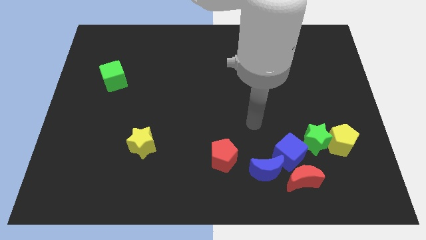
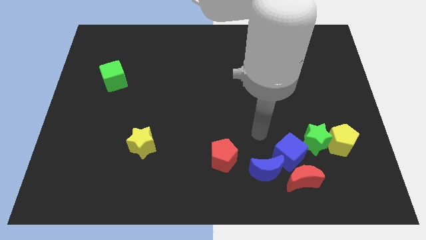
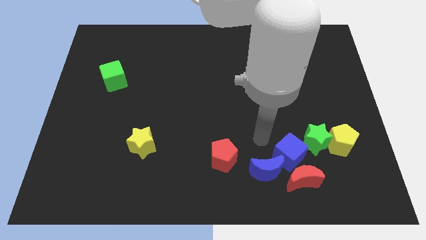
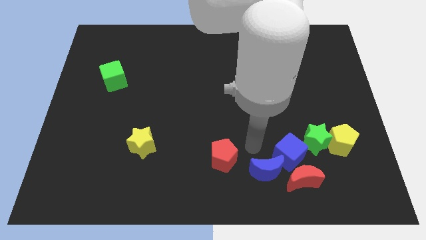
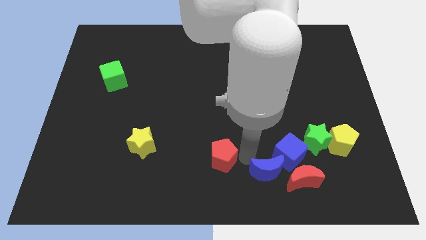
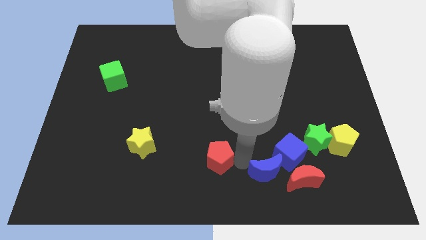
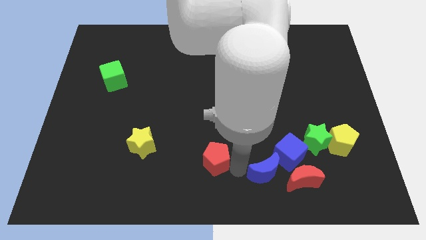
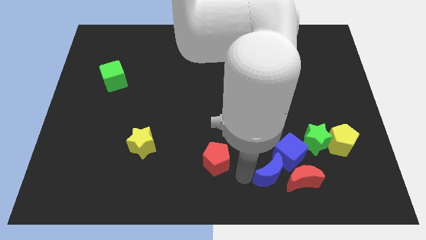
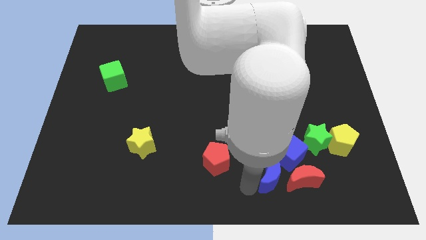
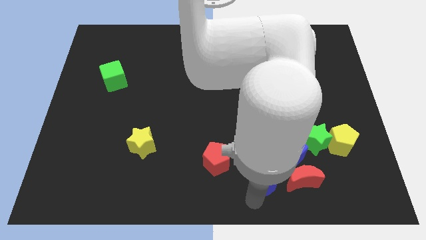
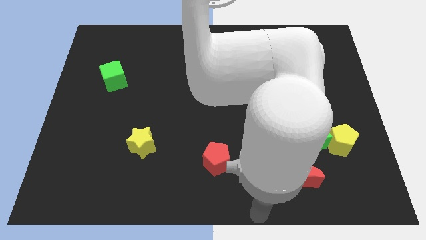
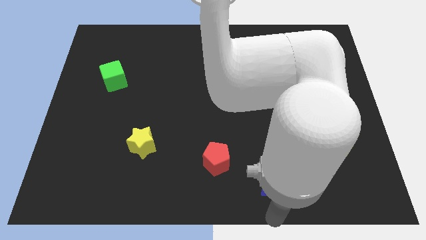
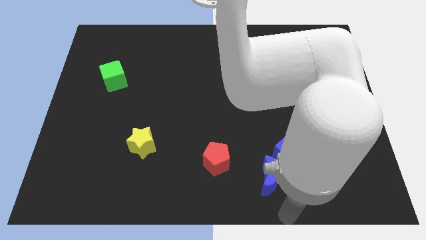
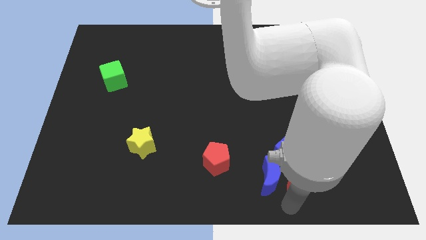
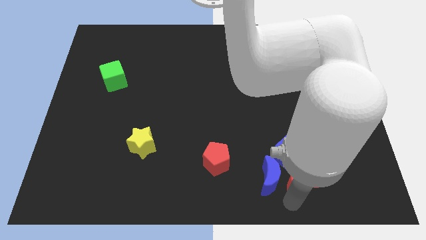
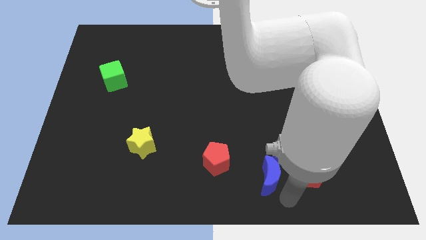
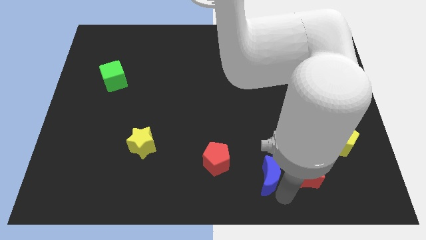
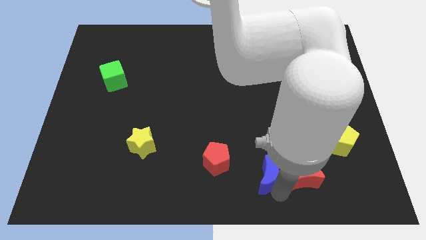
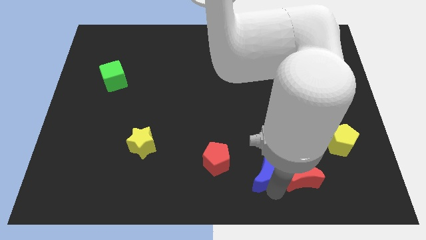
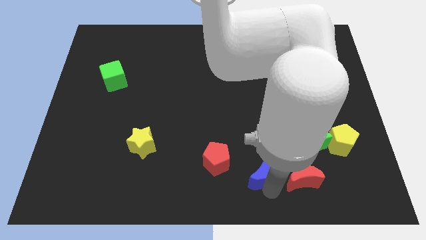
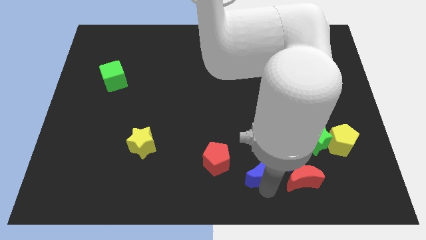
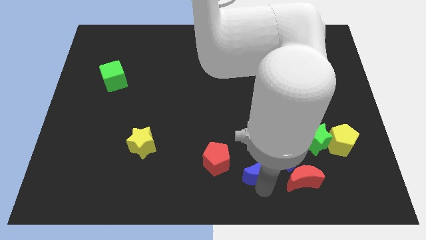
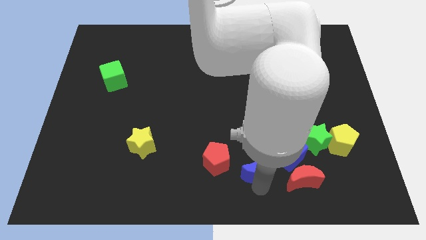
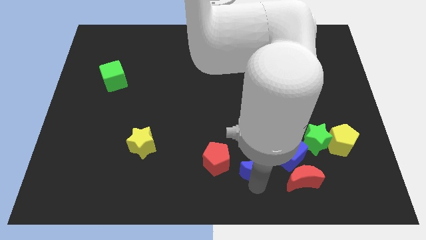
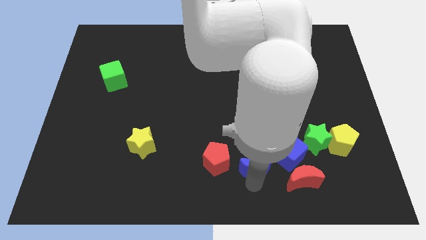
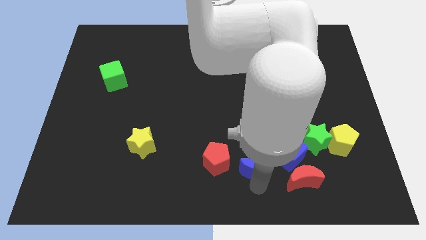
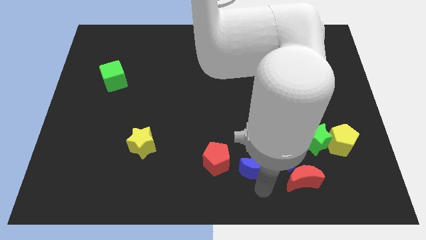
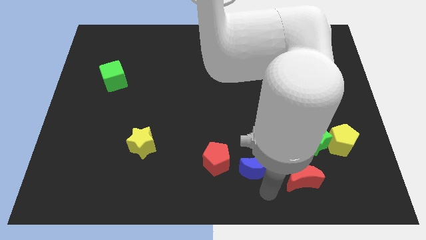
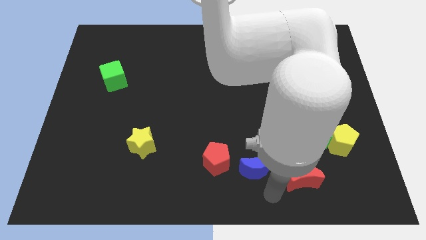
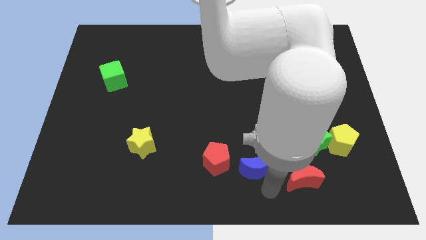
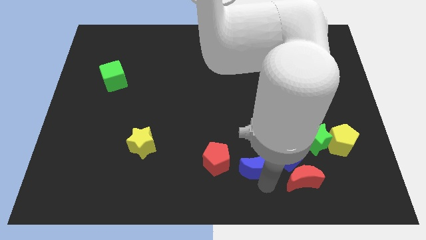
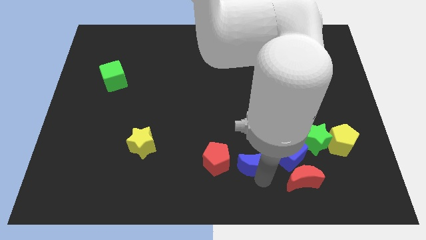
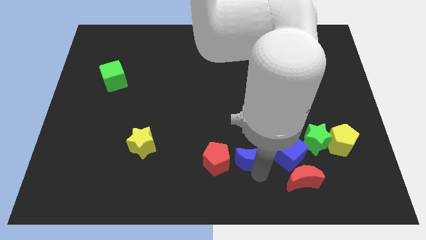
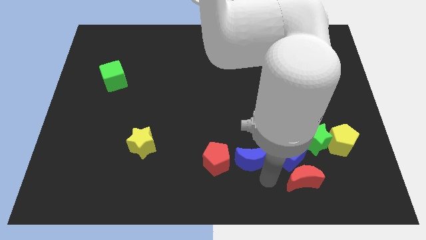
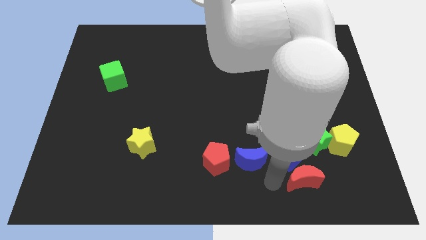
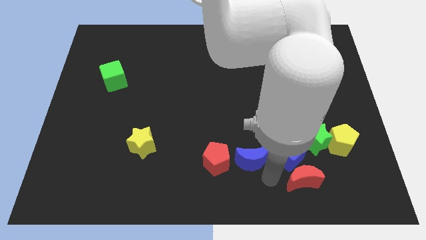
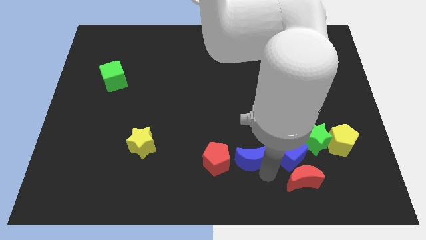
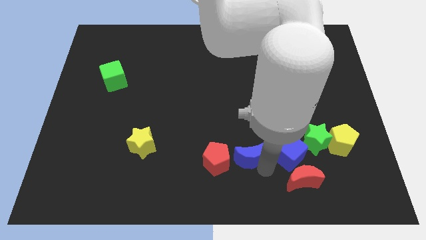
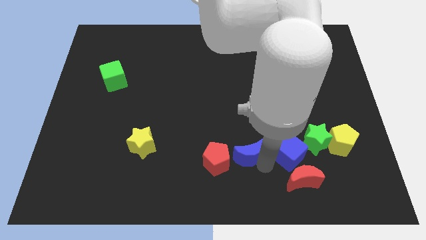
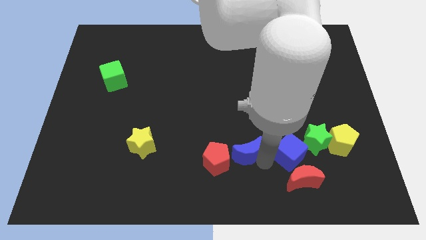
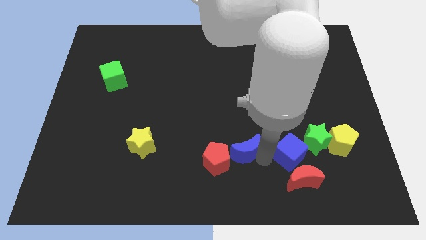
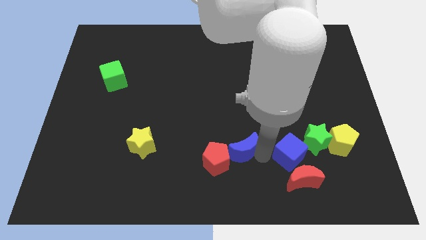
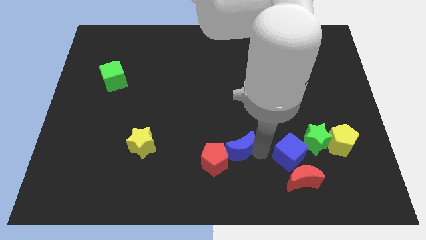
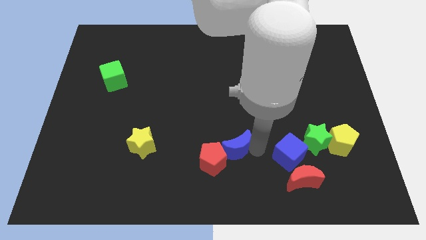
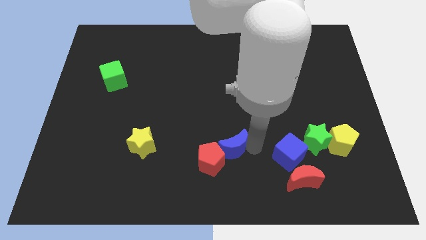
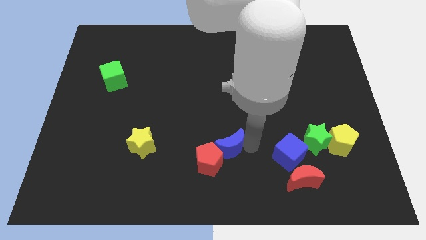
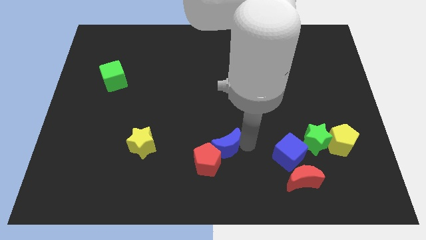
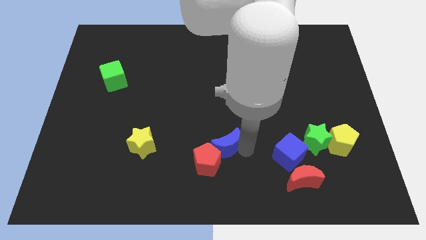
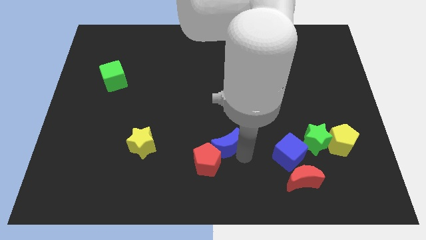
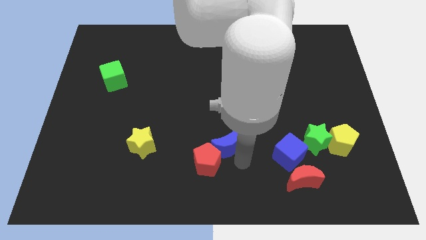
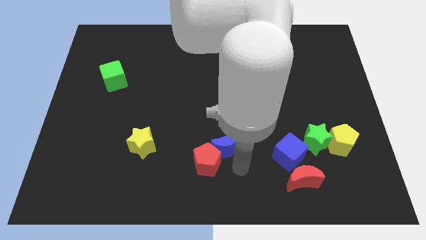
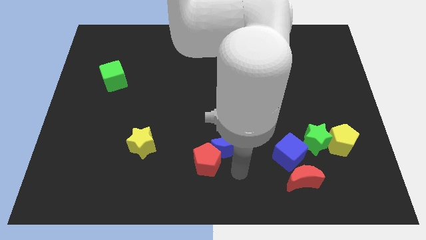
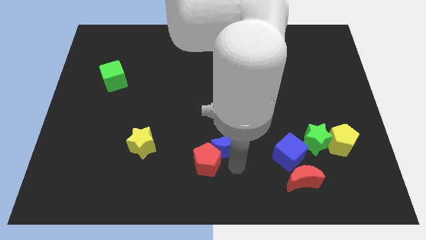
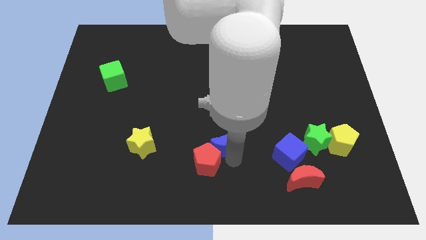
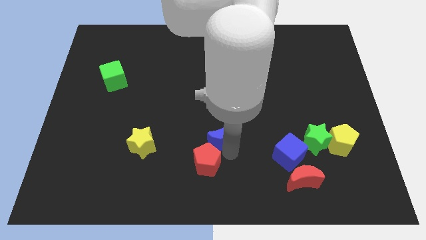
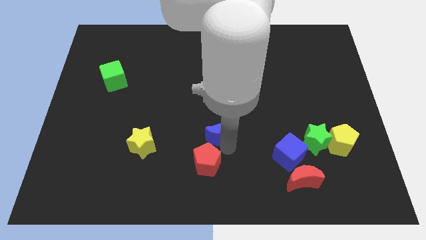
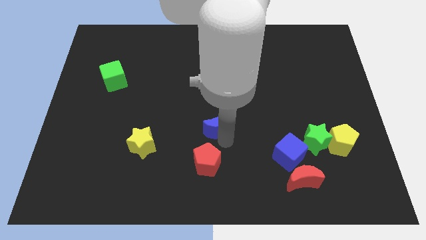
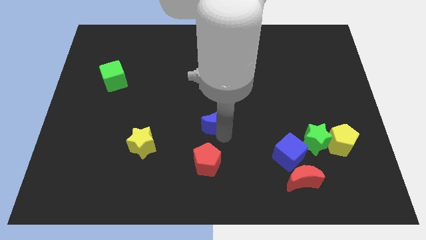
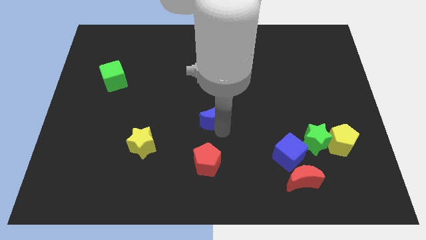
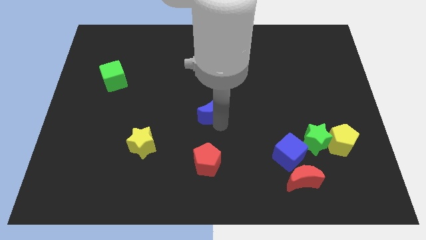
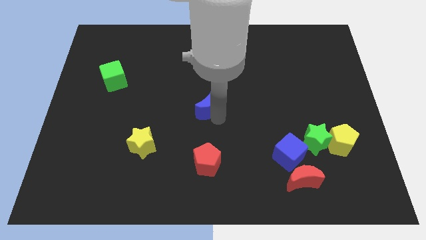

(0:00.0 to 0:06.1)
push the blue moon upwards and left

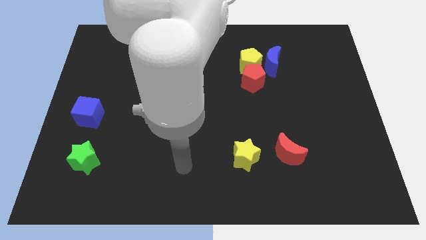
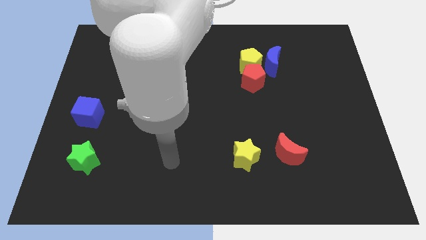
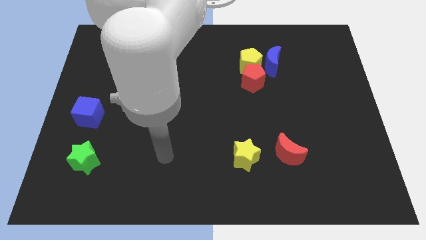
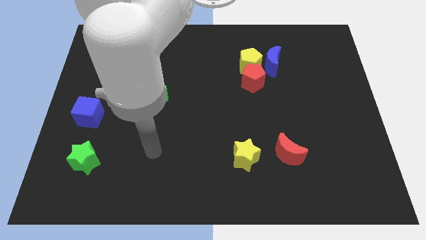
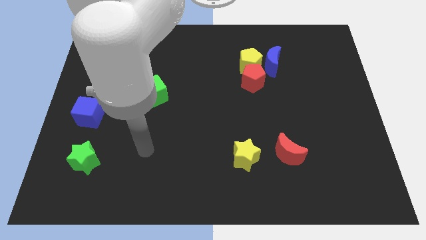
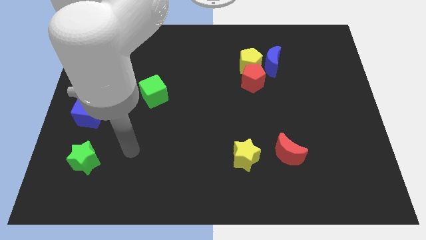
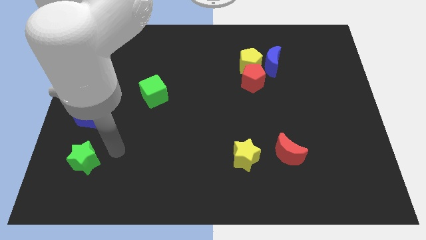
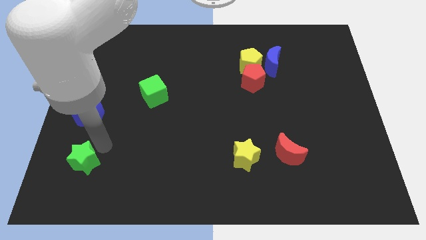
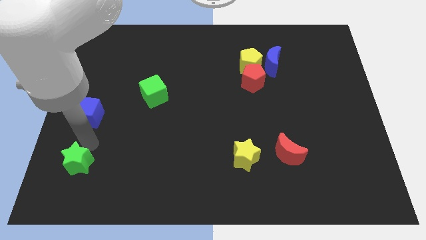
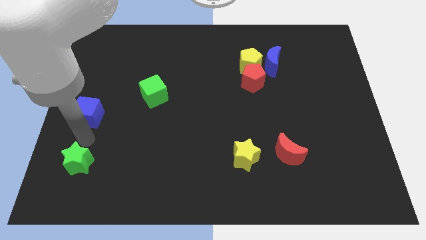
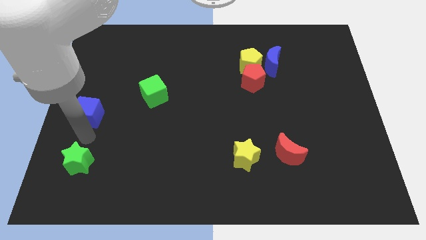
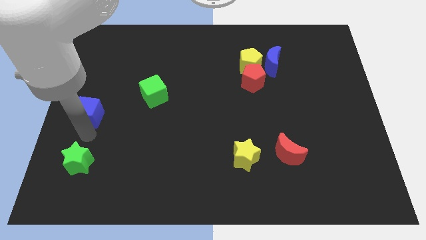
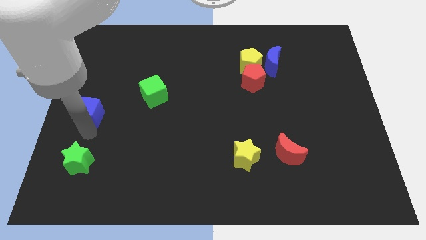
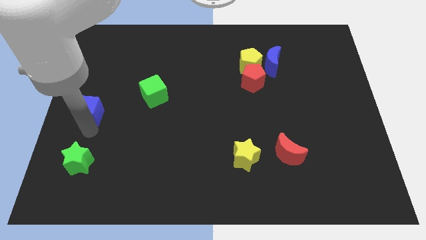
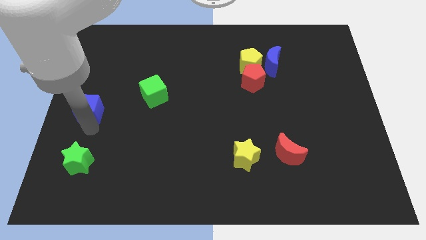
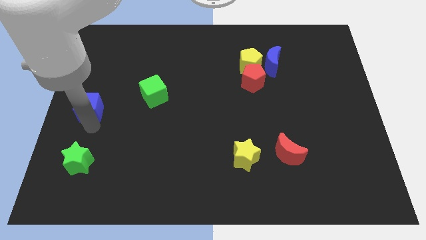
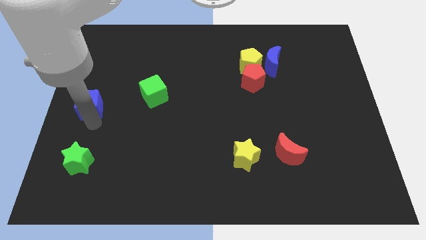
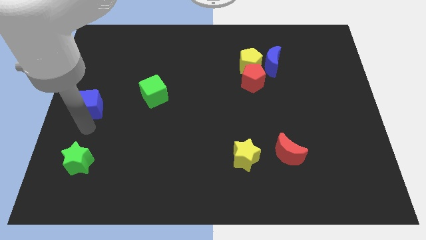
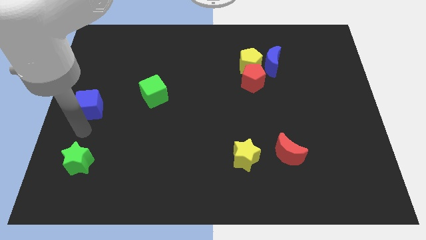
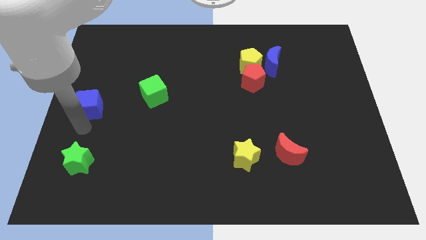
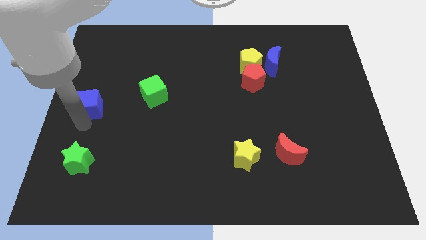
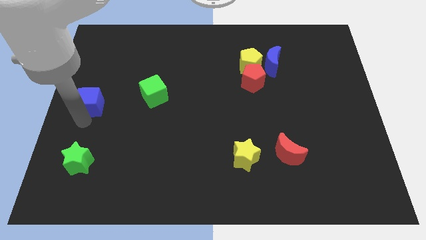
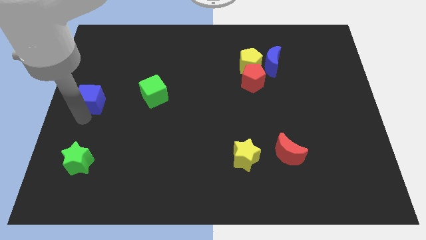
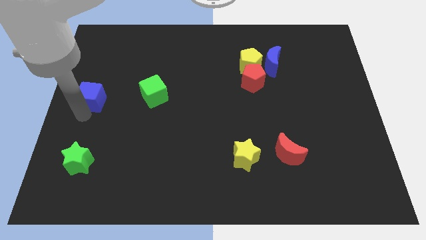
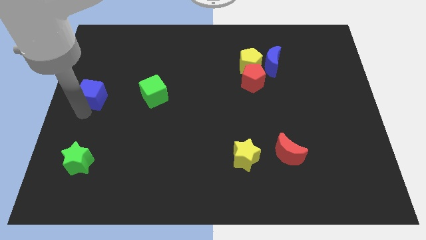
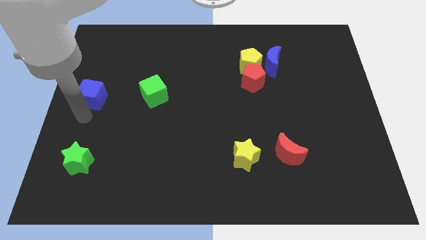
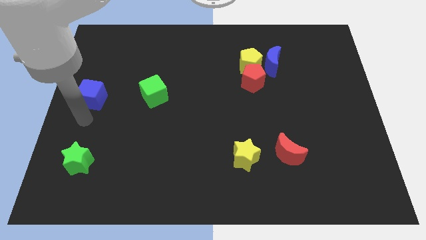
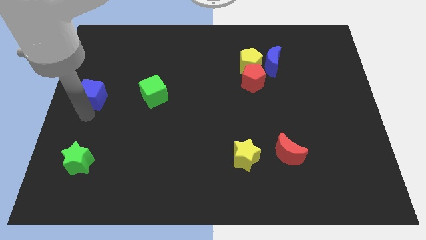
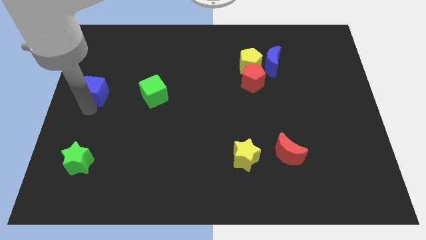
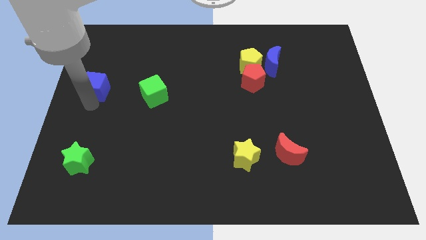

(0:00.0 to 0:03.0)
push the blue cube up slightly
